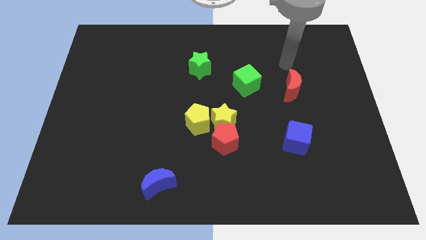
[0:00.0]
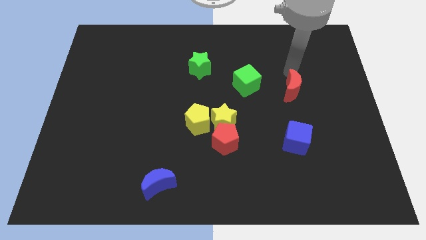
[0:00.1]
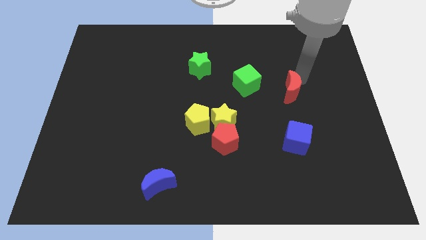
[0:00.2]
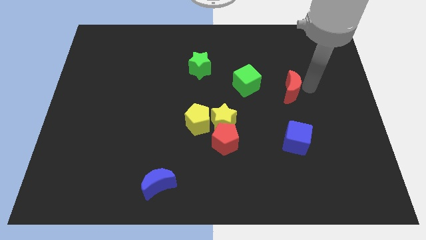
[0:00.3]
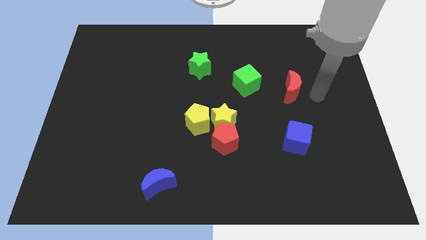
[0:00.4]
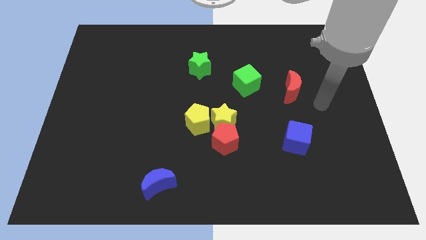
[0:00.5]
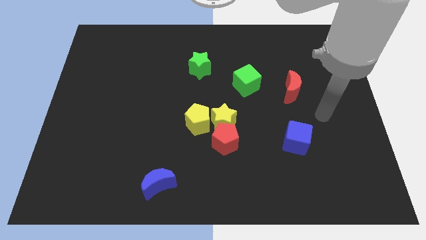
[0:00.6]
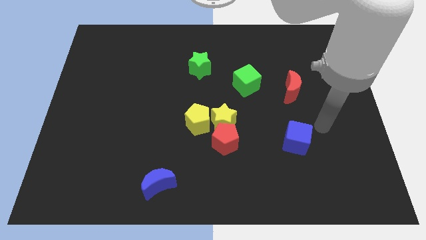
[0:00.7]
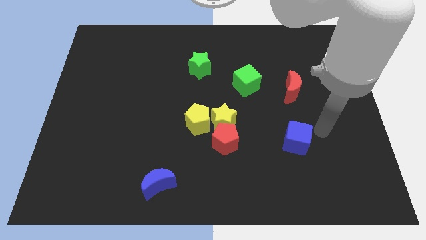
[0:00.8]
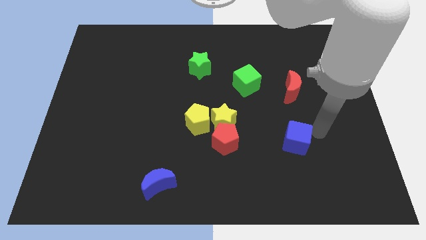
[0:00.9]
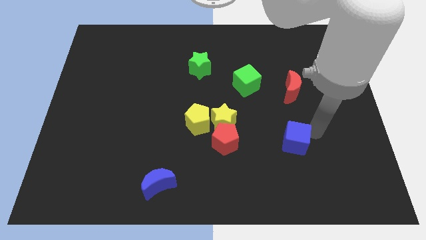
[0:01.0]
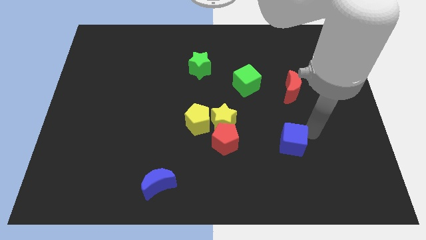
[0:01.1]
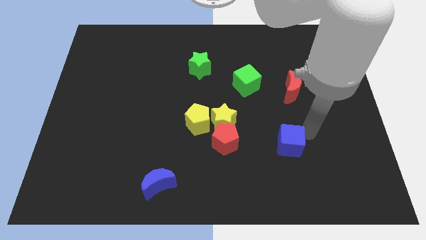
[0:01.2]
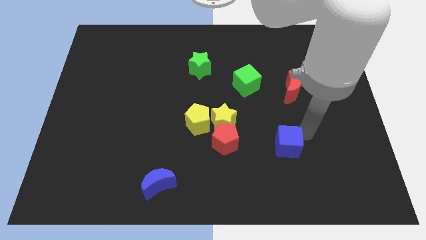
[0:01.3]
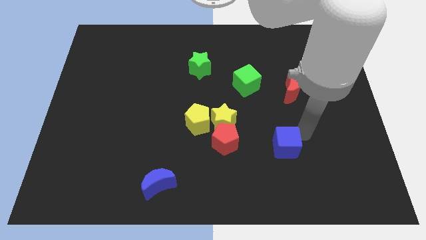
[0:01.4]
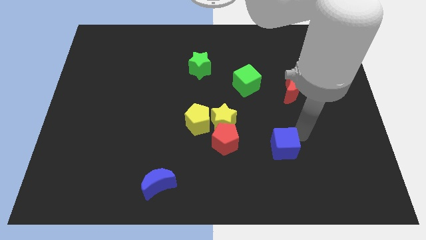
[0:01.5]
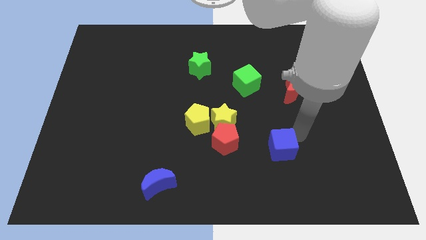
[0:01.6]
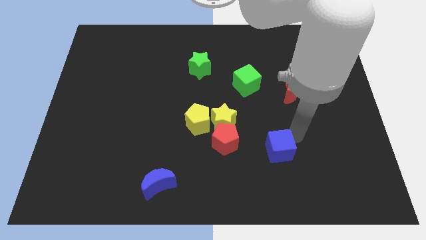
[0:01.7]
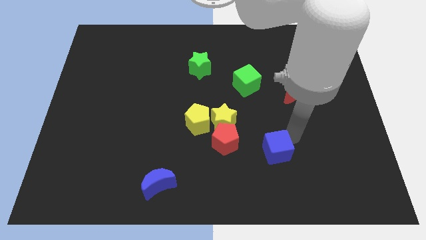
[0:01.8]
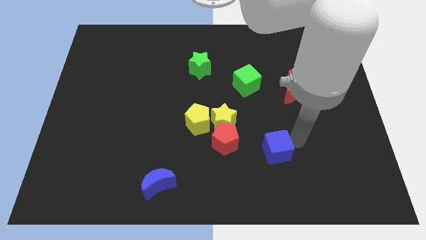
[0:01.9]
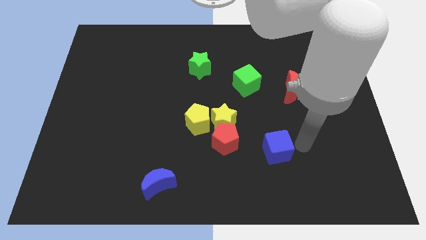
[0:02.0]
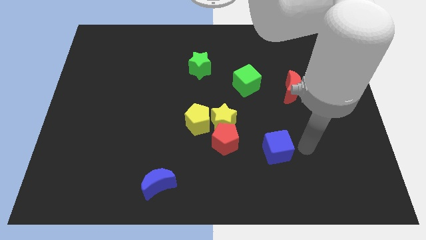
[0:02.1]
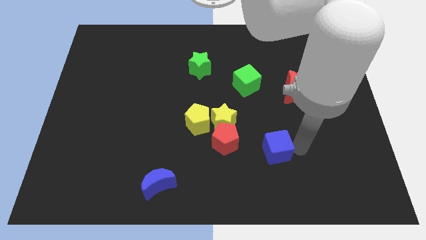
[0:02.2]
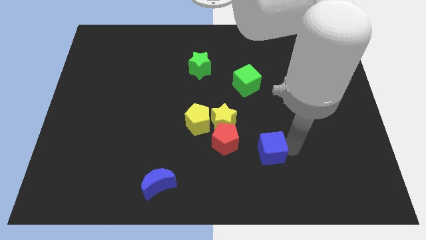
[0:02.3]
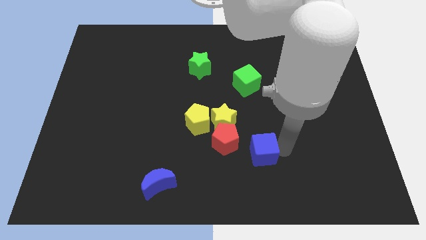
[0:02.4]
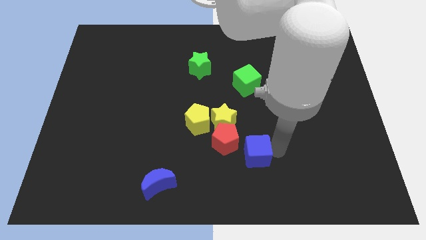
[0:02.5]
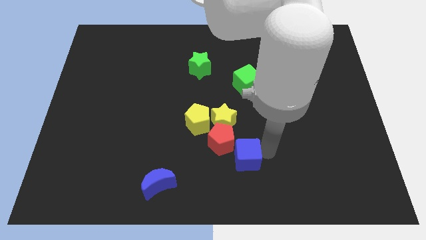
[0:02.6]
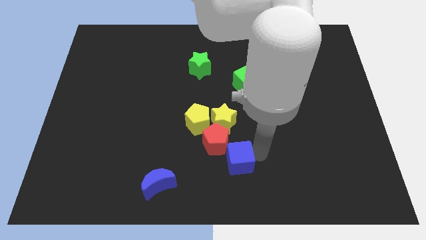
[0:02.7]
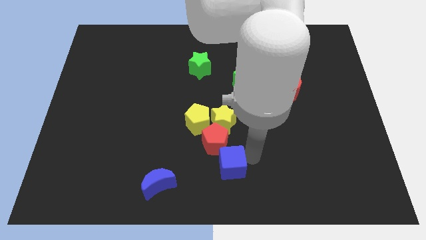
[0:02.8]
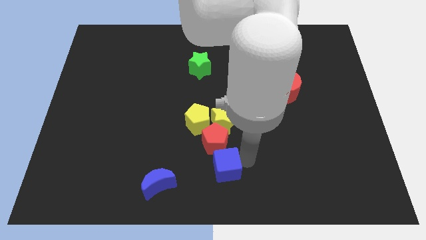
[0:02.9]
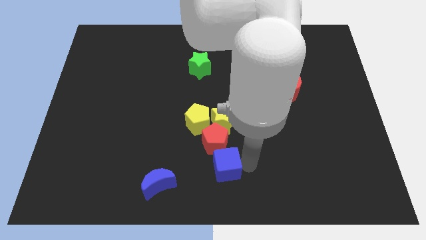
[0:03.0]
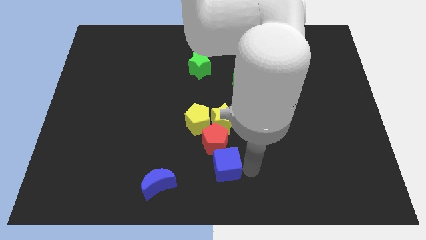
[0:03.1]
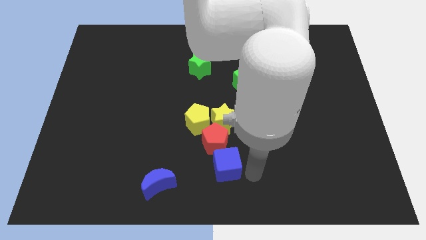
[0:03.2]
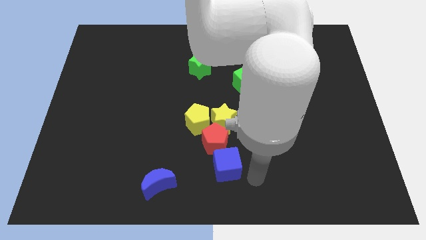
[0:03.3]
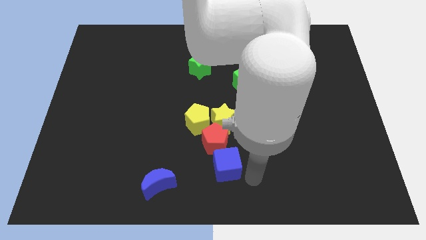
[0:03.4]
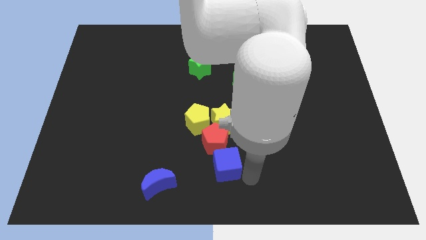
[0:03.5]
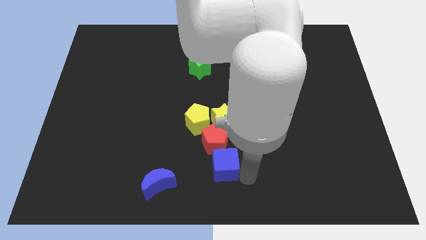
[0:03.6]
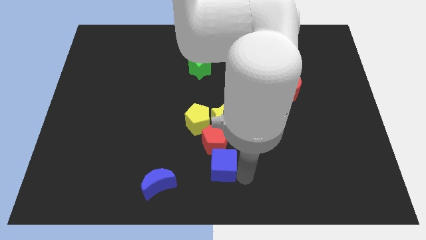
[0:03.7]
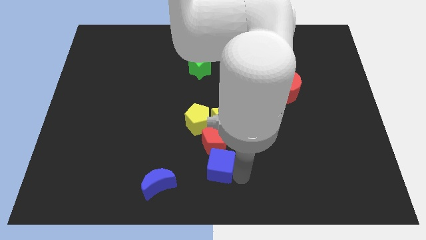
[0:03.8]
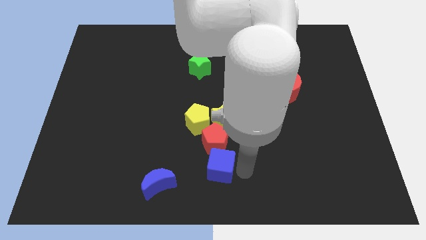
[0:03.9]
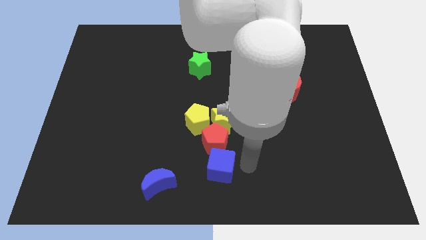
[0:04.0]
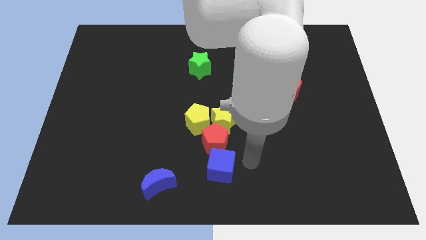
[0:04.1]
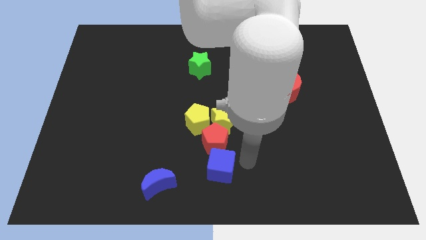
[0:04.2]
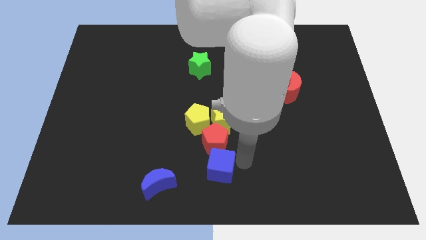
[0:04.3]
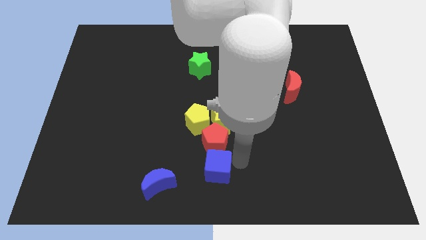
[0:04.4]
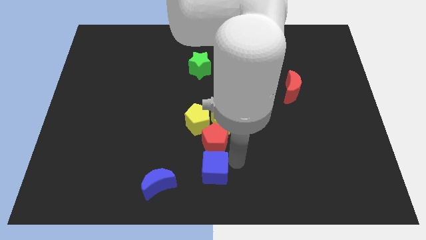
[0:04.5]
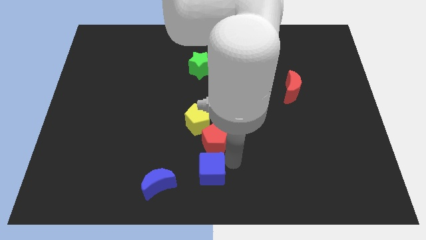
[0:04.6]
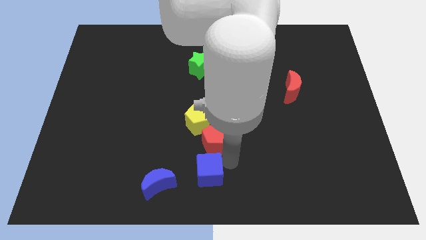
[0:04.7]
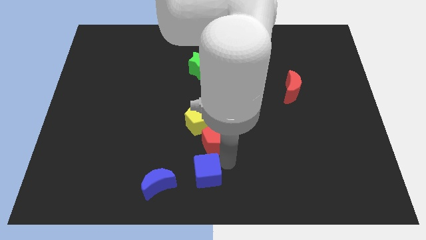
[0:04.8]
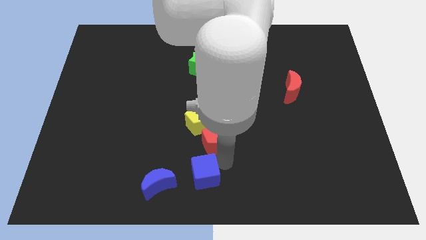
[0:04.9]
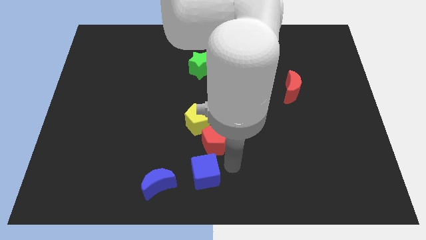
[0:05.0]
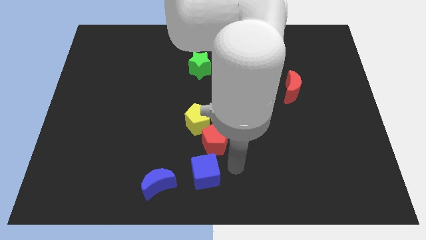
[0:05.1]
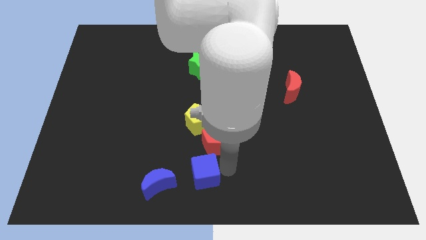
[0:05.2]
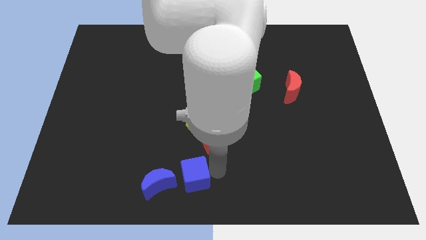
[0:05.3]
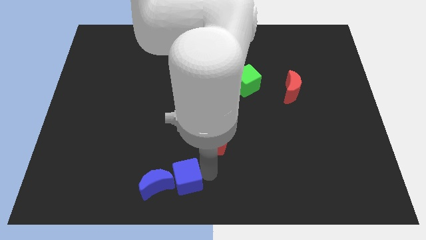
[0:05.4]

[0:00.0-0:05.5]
push the blue cube close to the blue moon

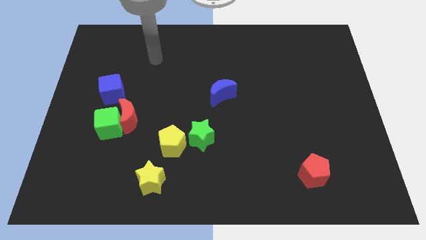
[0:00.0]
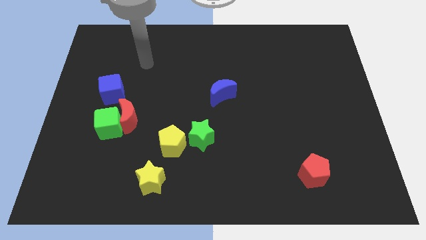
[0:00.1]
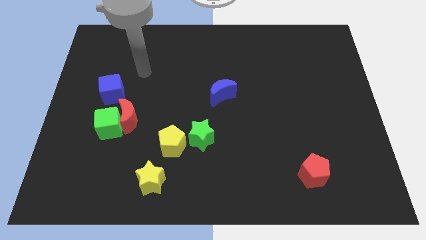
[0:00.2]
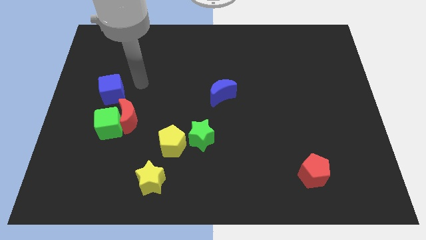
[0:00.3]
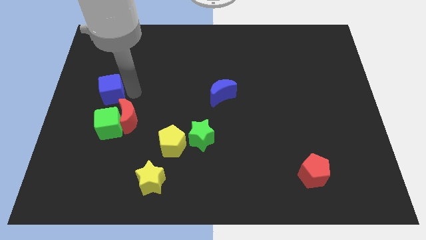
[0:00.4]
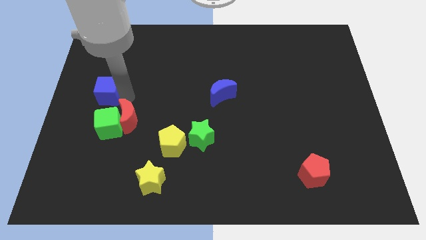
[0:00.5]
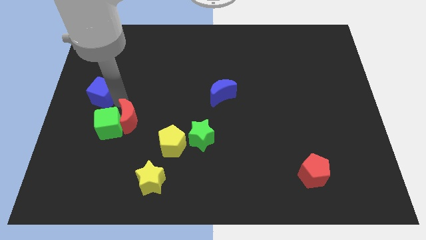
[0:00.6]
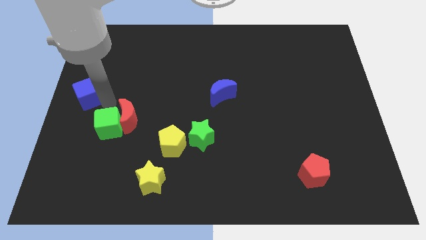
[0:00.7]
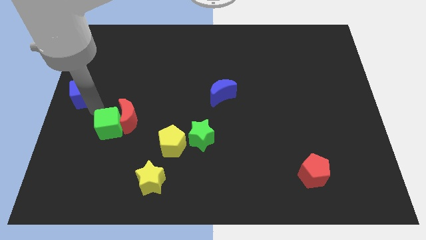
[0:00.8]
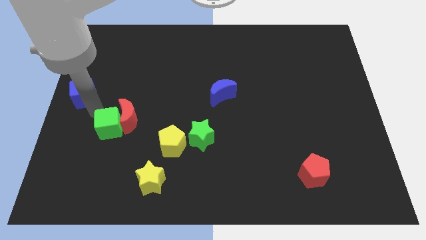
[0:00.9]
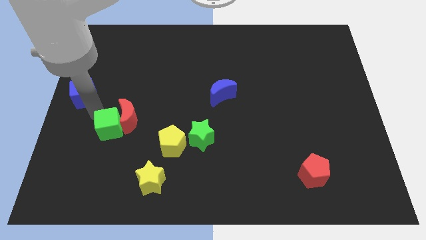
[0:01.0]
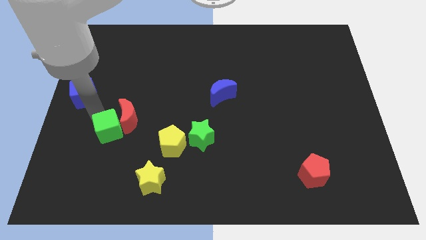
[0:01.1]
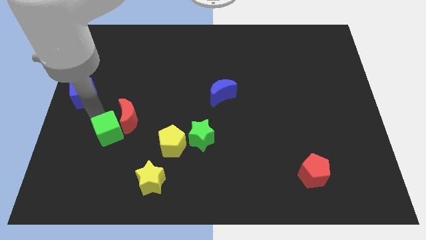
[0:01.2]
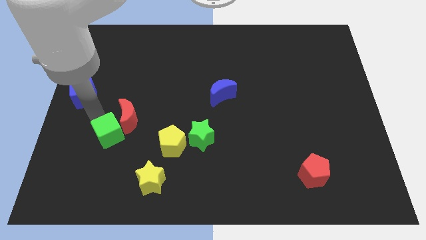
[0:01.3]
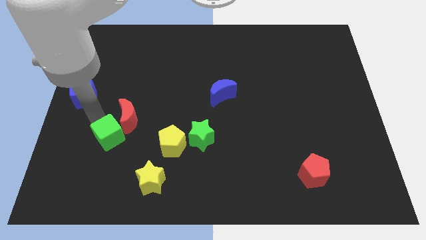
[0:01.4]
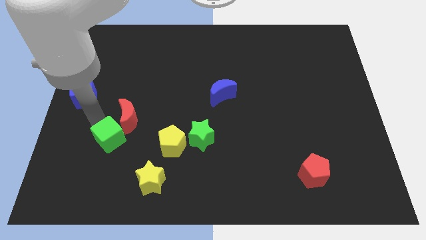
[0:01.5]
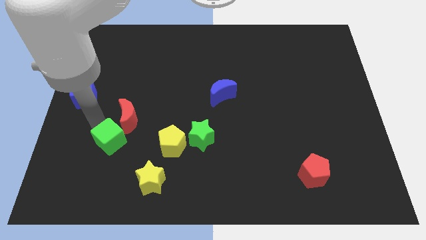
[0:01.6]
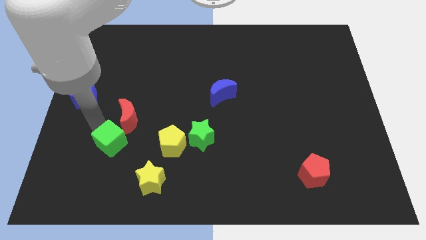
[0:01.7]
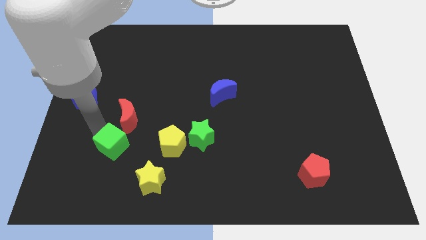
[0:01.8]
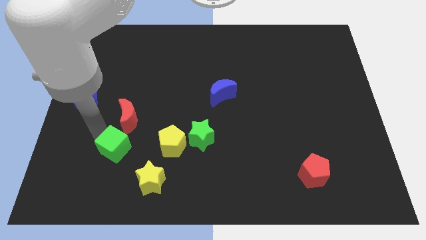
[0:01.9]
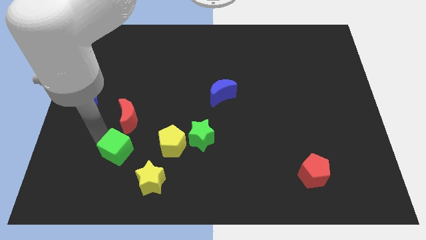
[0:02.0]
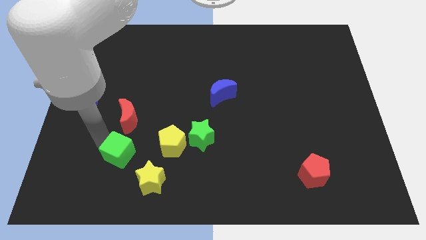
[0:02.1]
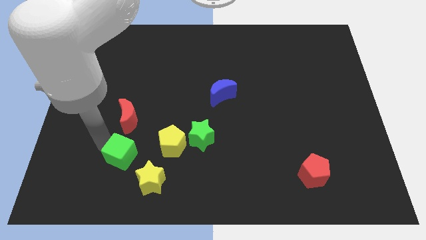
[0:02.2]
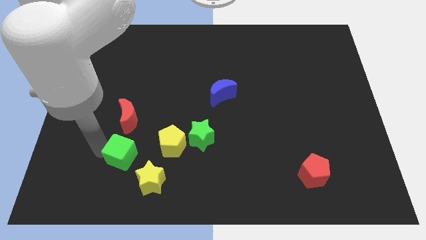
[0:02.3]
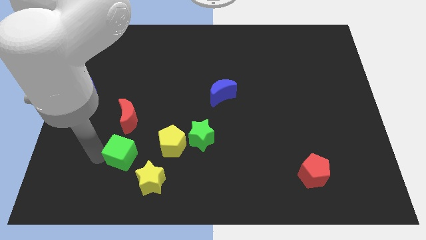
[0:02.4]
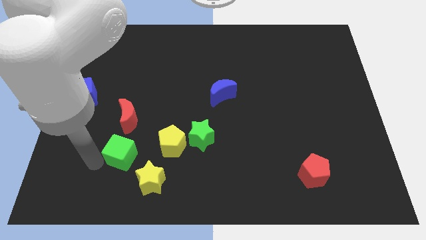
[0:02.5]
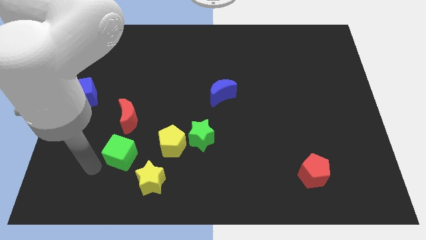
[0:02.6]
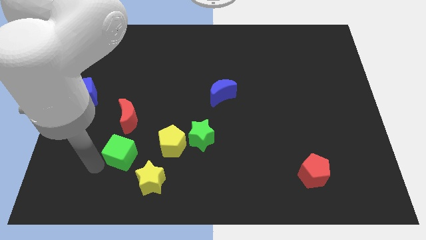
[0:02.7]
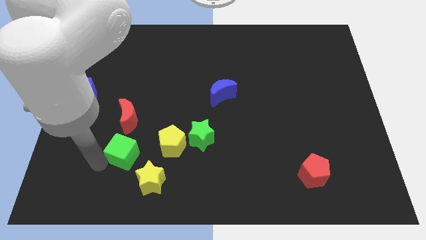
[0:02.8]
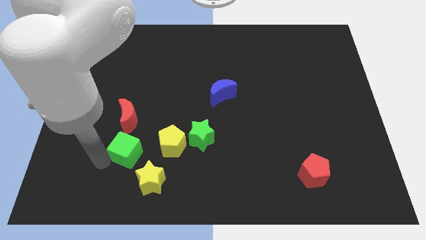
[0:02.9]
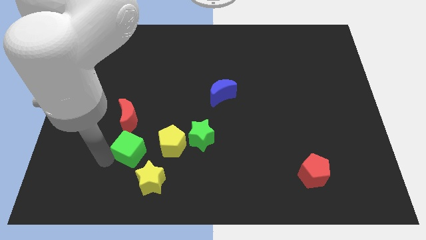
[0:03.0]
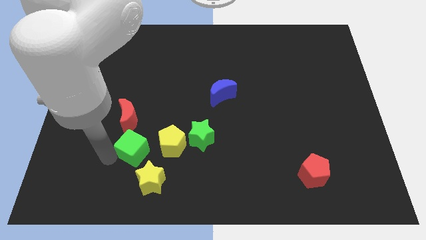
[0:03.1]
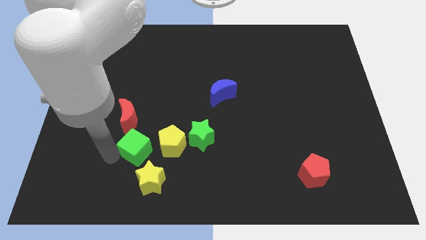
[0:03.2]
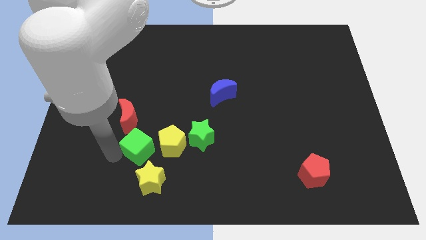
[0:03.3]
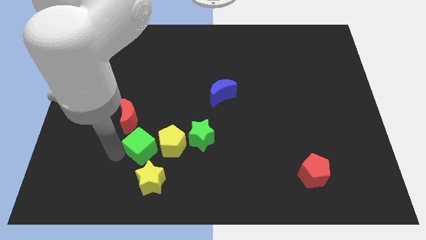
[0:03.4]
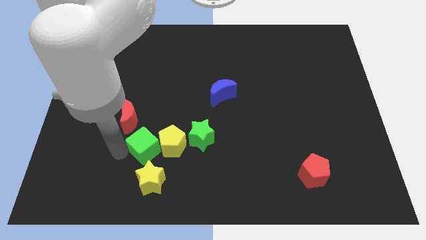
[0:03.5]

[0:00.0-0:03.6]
push the green cube next to the yellow pentagon
